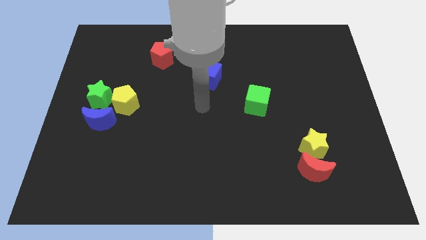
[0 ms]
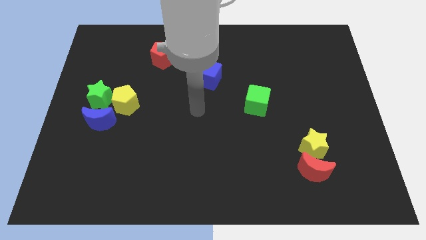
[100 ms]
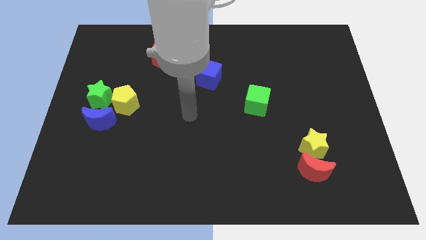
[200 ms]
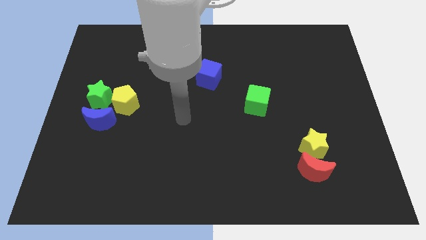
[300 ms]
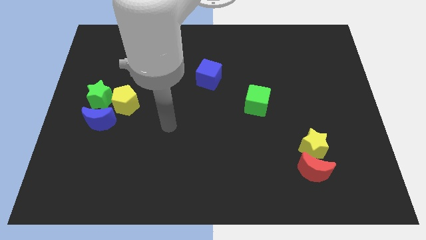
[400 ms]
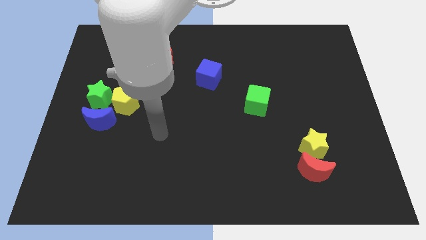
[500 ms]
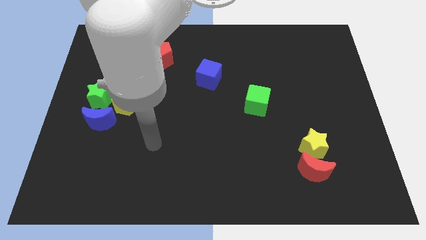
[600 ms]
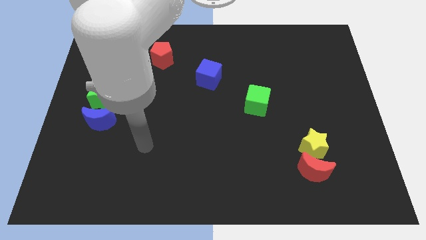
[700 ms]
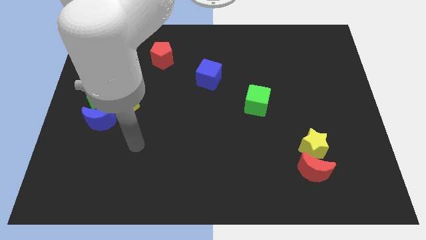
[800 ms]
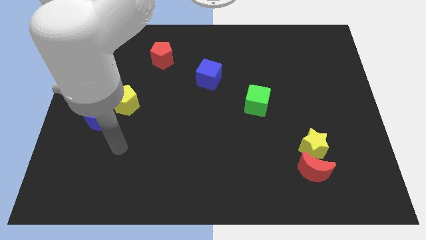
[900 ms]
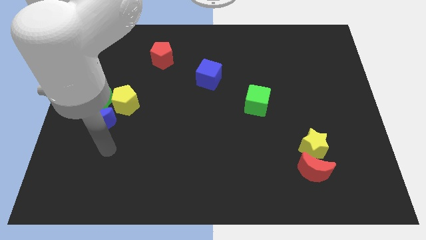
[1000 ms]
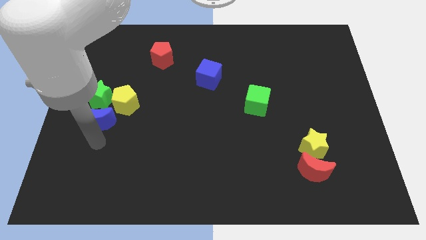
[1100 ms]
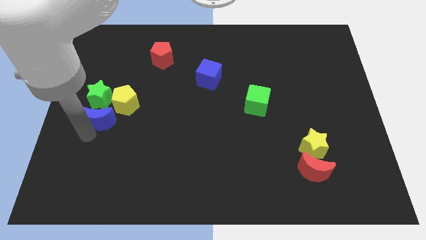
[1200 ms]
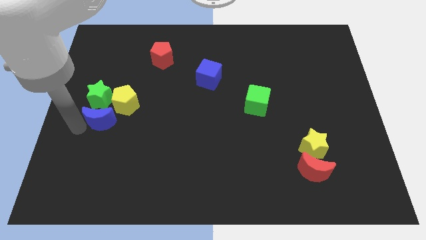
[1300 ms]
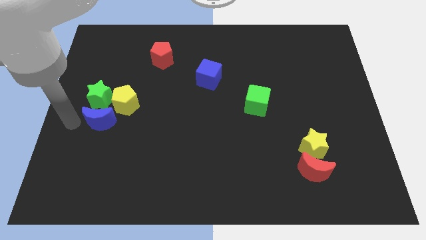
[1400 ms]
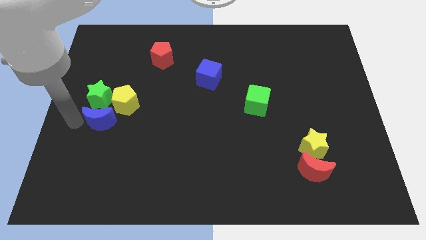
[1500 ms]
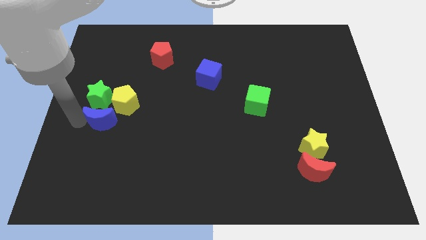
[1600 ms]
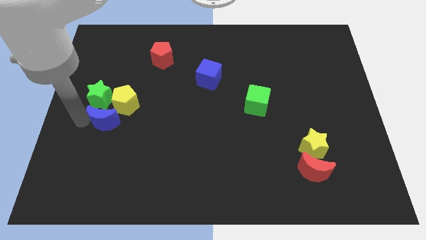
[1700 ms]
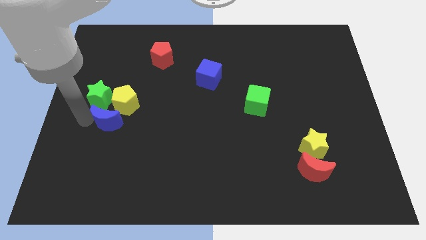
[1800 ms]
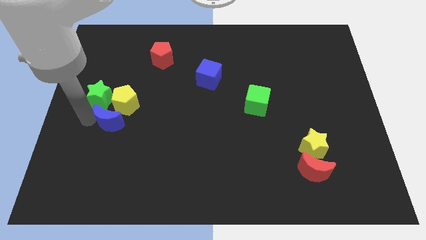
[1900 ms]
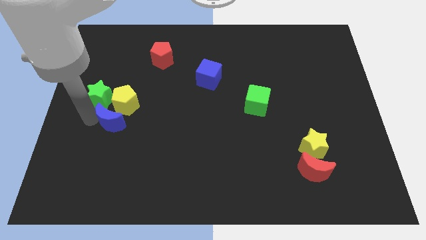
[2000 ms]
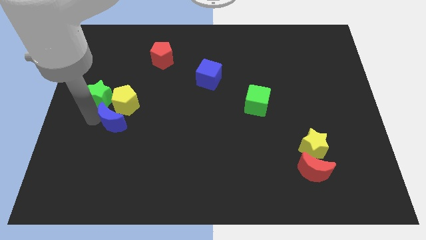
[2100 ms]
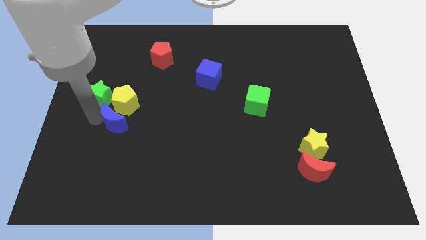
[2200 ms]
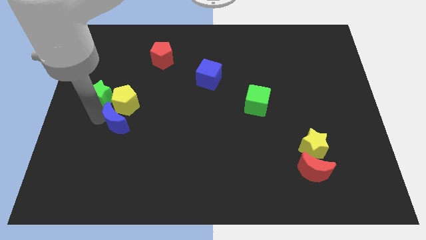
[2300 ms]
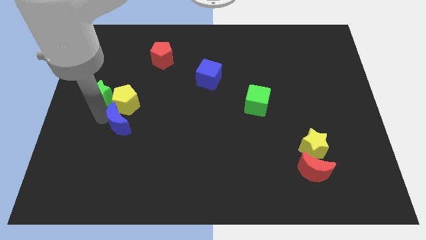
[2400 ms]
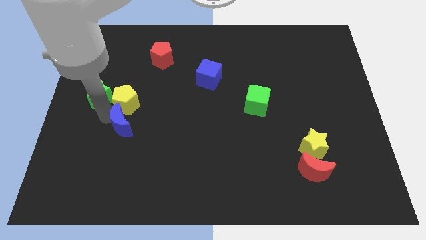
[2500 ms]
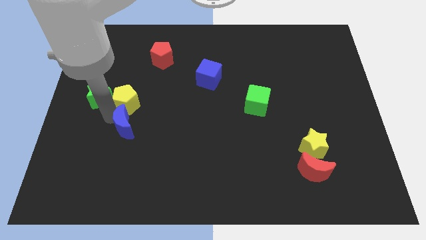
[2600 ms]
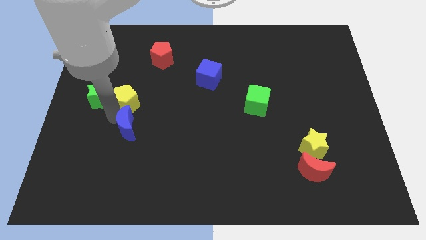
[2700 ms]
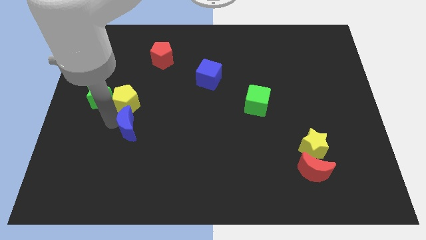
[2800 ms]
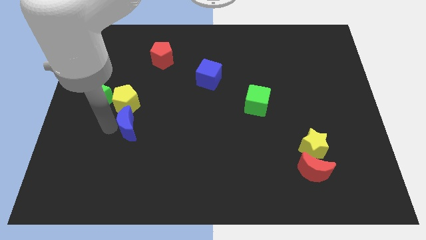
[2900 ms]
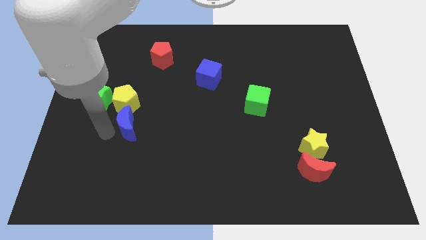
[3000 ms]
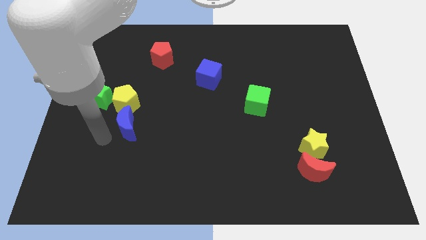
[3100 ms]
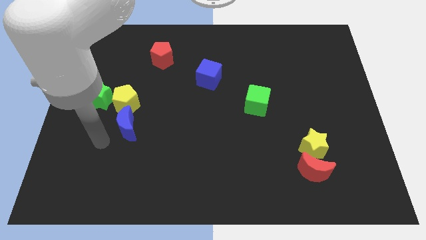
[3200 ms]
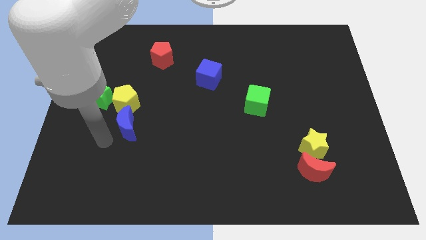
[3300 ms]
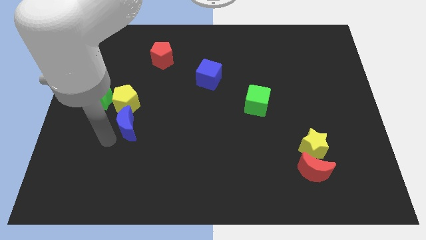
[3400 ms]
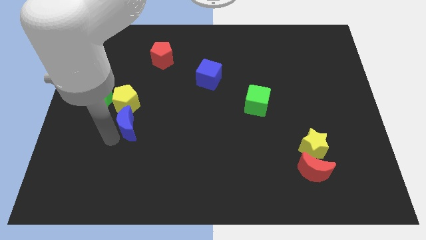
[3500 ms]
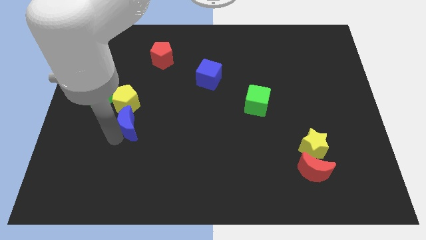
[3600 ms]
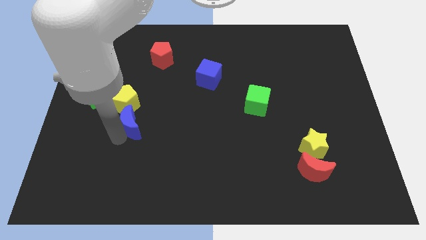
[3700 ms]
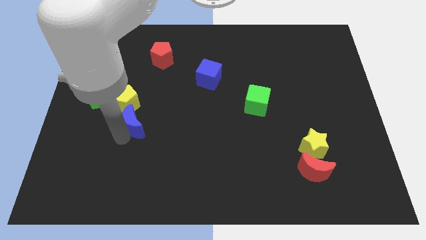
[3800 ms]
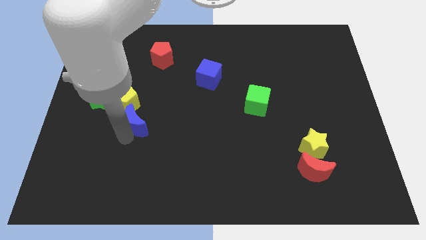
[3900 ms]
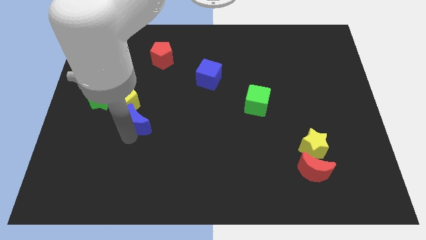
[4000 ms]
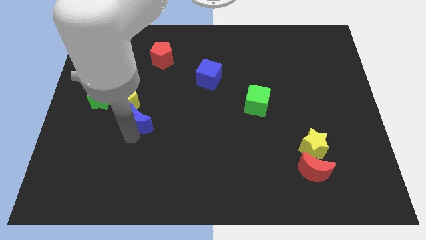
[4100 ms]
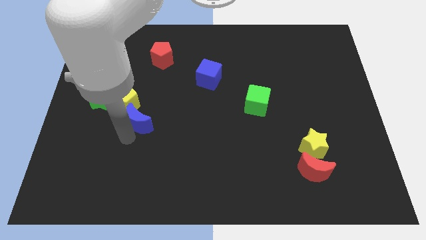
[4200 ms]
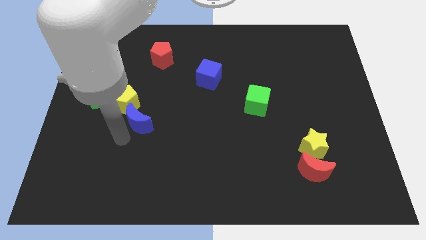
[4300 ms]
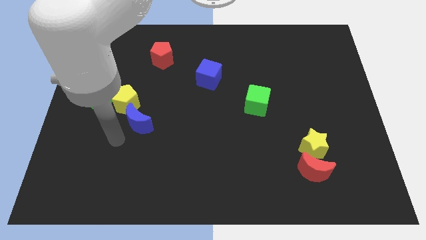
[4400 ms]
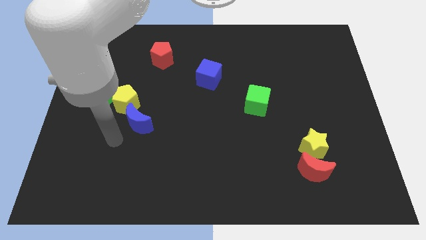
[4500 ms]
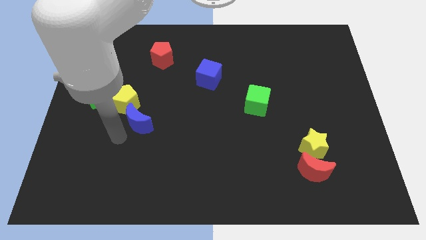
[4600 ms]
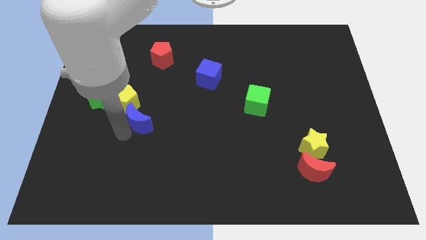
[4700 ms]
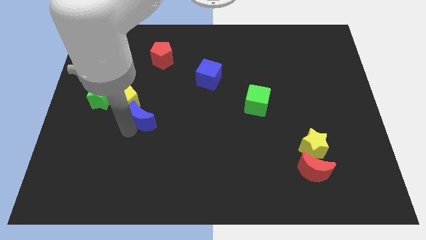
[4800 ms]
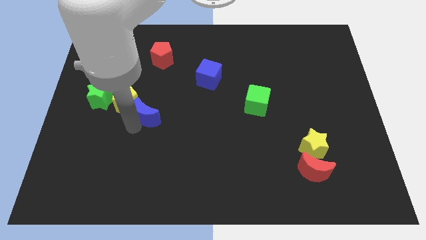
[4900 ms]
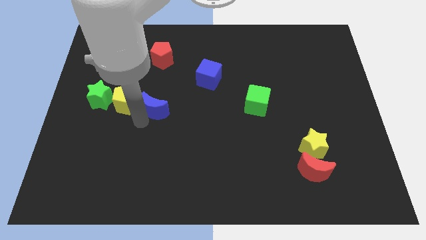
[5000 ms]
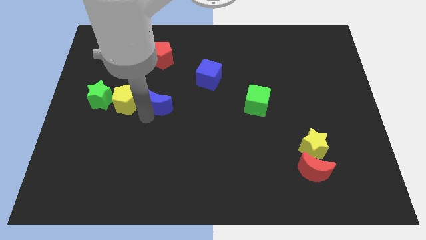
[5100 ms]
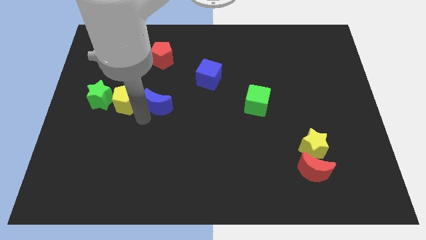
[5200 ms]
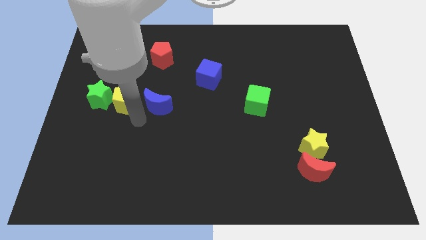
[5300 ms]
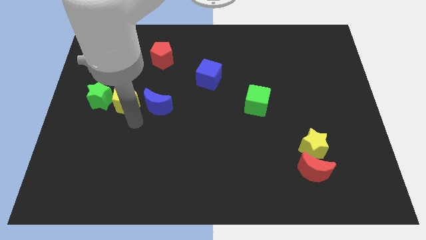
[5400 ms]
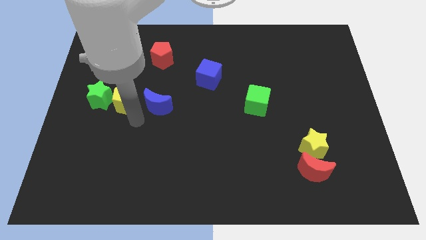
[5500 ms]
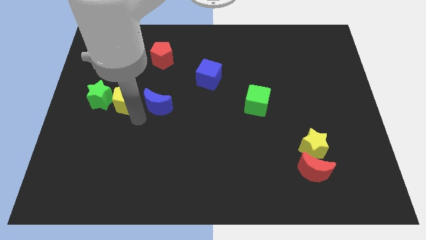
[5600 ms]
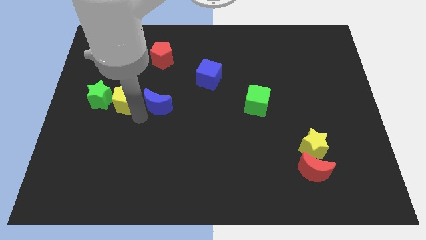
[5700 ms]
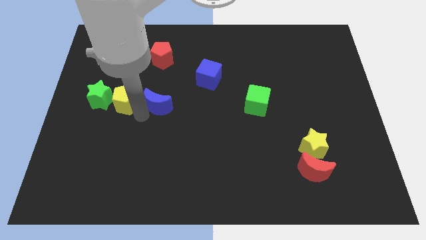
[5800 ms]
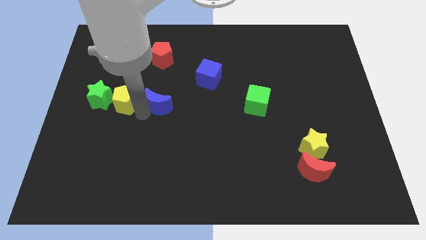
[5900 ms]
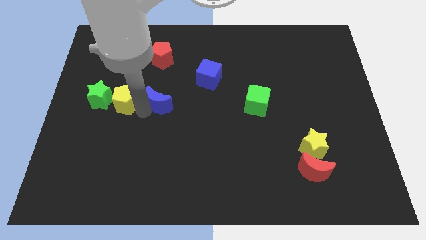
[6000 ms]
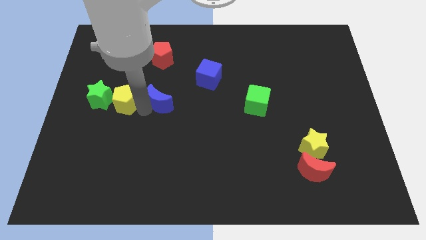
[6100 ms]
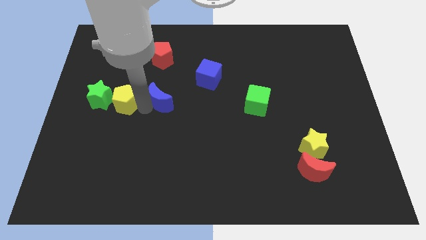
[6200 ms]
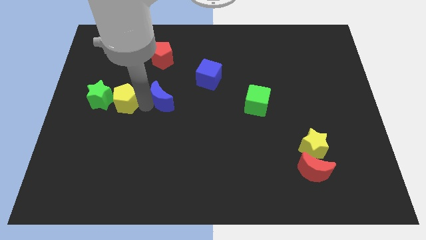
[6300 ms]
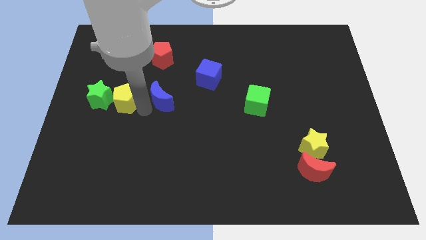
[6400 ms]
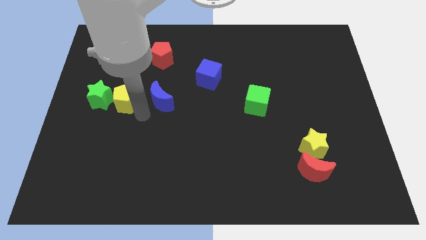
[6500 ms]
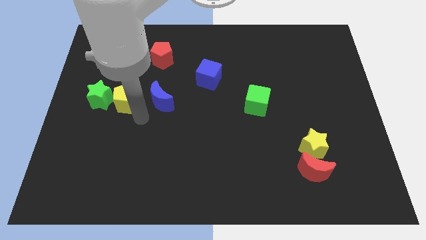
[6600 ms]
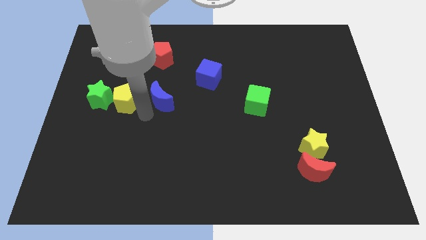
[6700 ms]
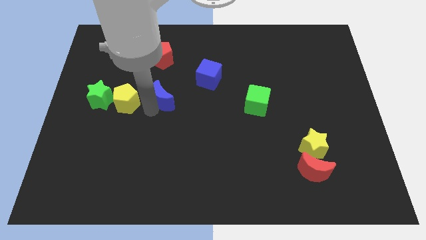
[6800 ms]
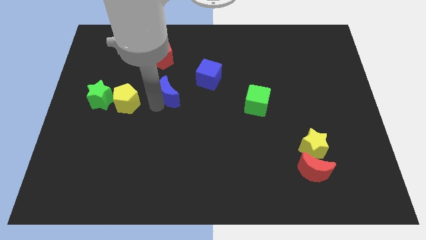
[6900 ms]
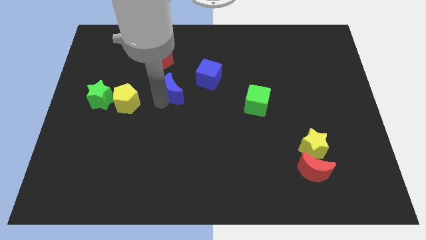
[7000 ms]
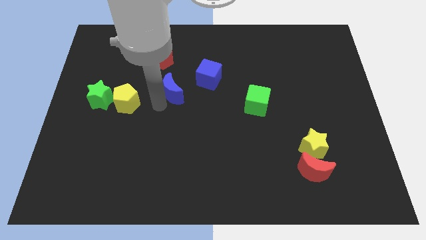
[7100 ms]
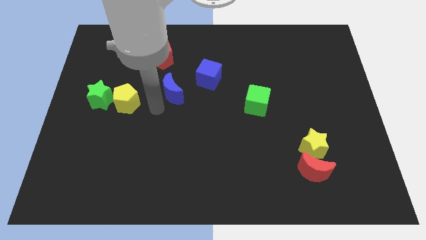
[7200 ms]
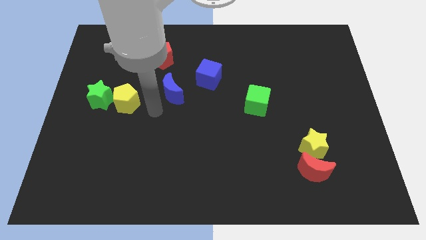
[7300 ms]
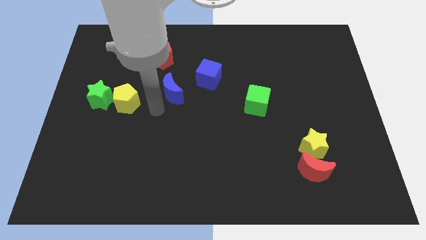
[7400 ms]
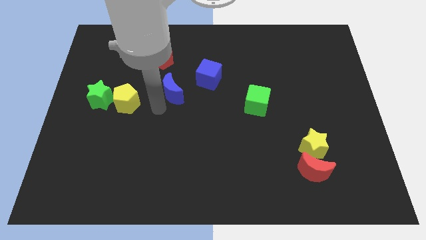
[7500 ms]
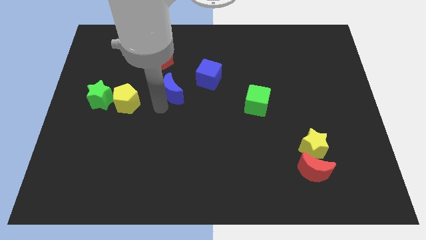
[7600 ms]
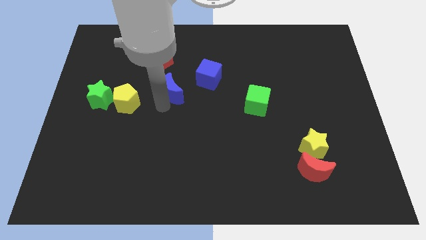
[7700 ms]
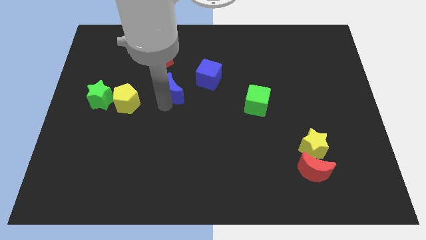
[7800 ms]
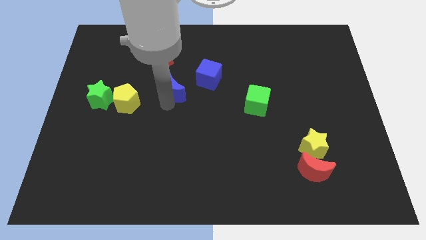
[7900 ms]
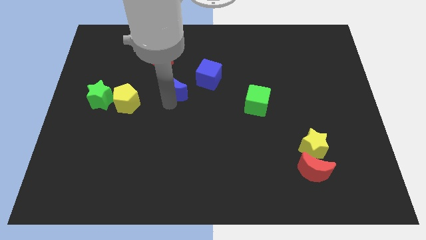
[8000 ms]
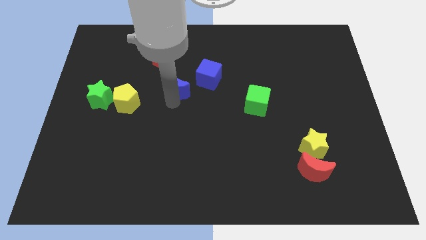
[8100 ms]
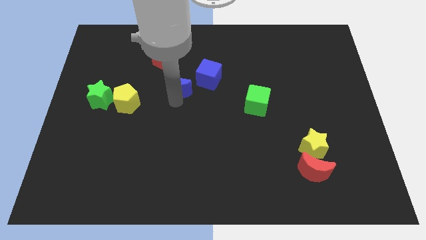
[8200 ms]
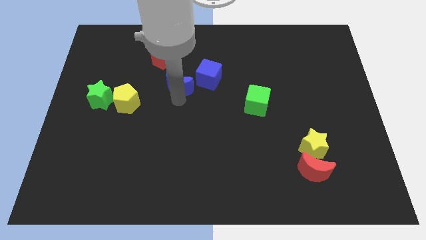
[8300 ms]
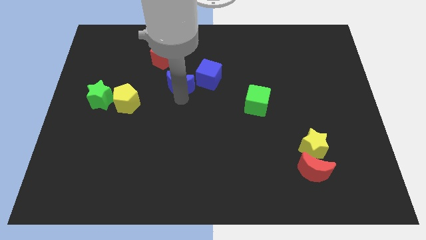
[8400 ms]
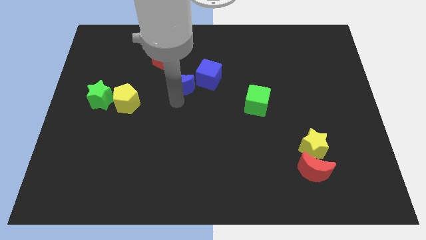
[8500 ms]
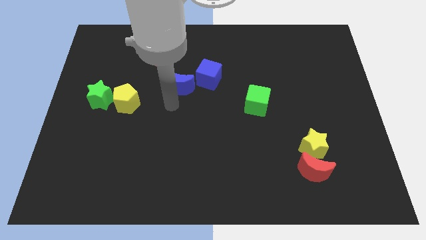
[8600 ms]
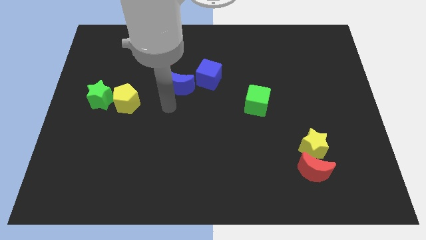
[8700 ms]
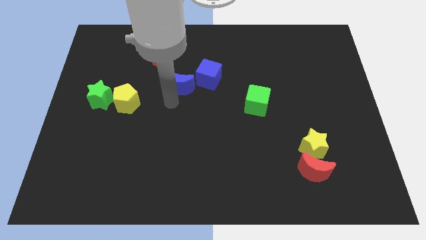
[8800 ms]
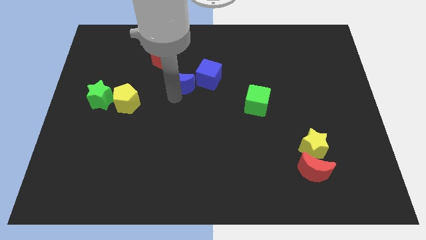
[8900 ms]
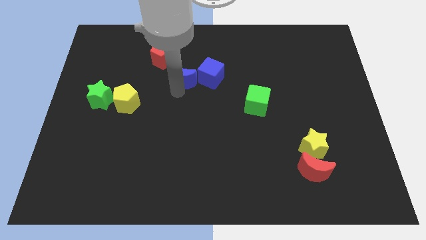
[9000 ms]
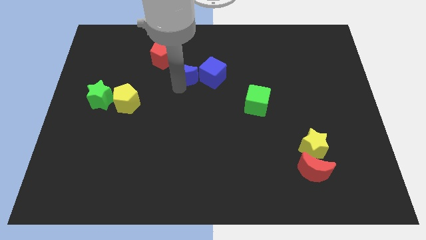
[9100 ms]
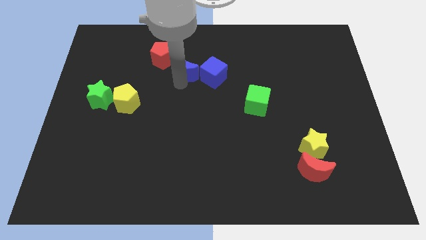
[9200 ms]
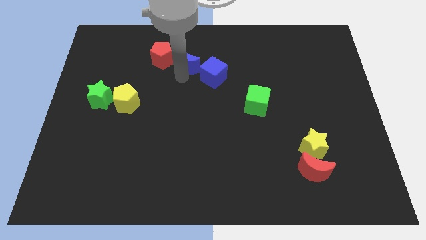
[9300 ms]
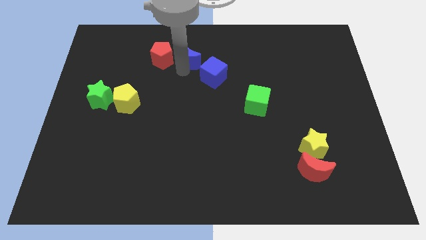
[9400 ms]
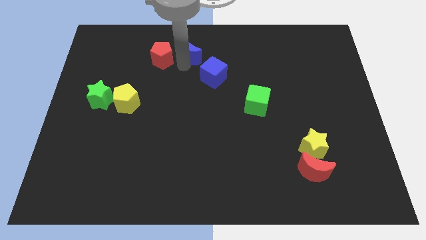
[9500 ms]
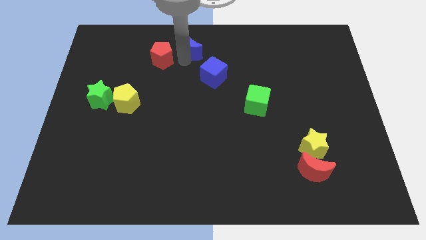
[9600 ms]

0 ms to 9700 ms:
push the blue moon to the towards your base
